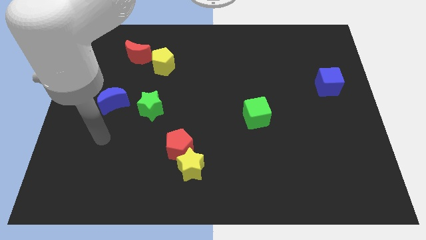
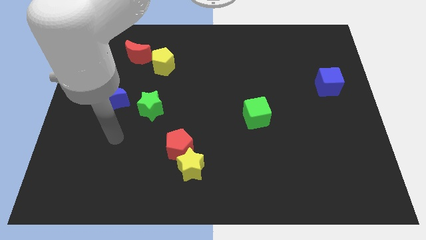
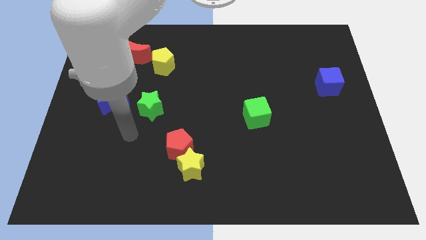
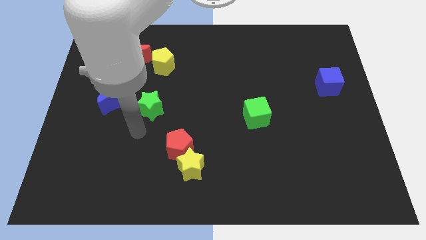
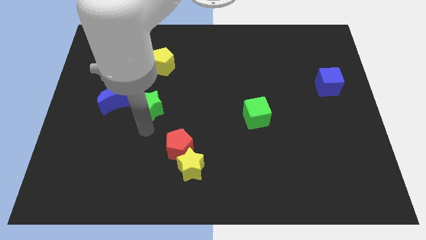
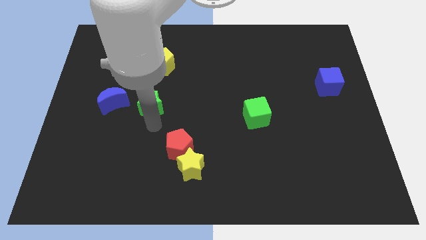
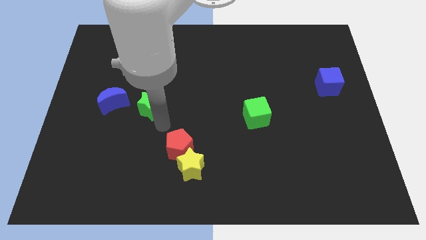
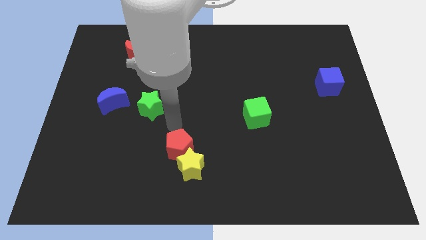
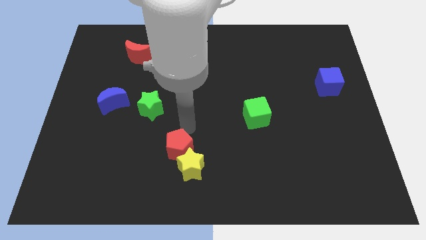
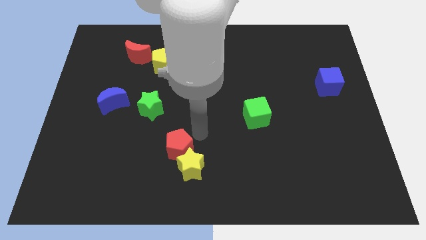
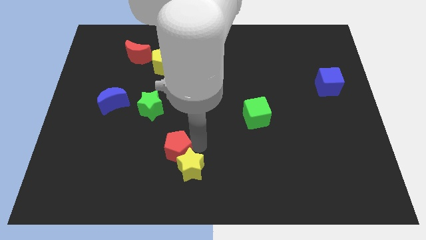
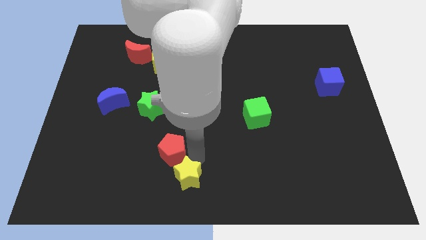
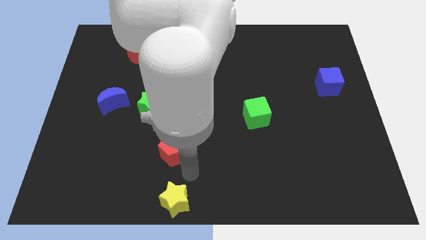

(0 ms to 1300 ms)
pull the red pentagon apart from the yellow star

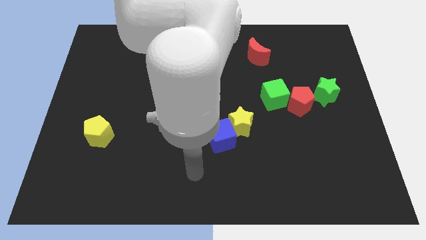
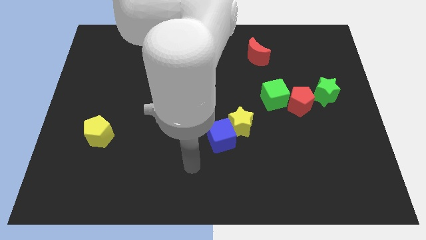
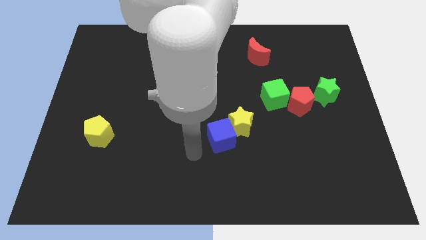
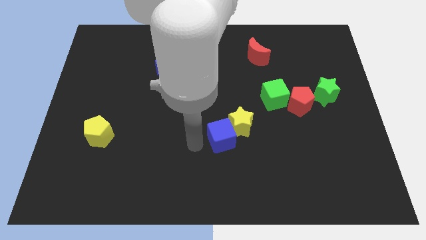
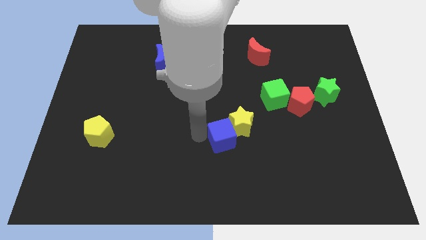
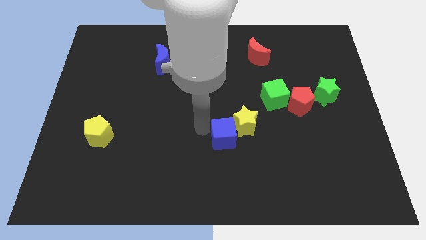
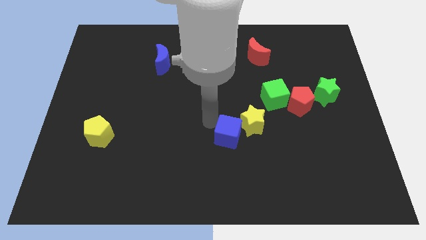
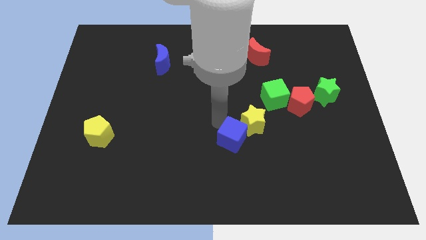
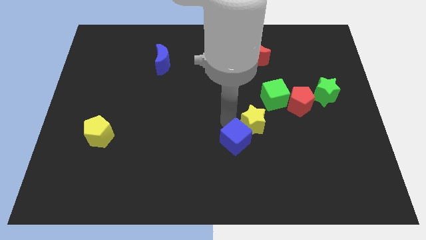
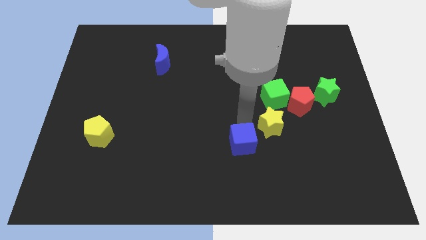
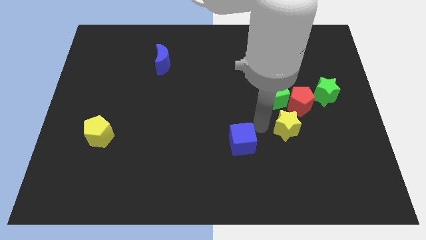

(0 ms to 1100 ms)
separate the blue cube from the yellow star

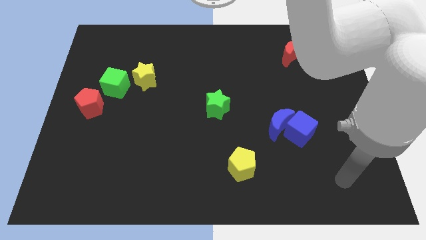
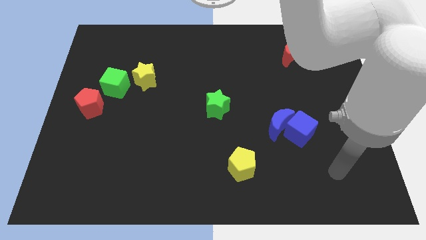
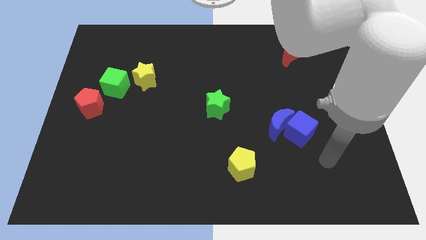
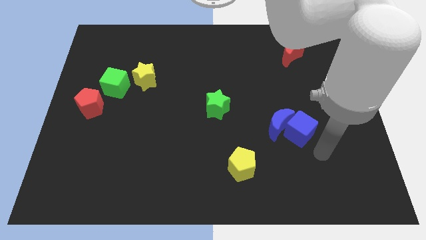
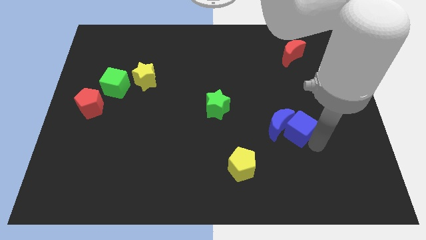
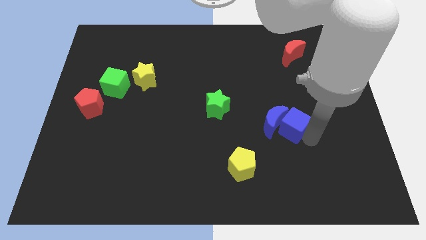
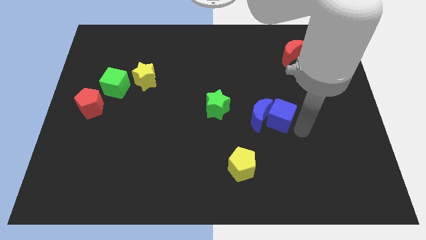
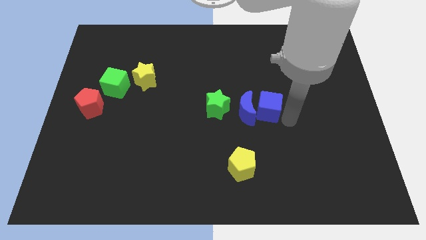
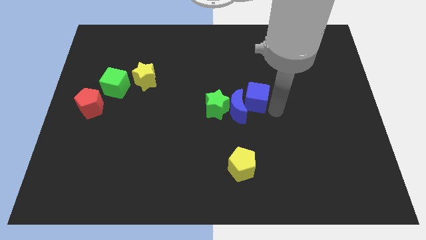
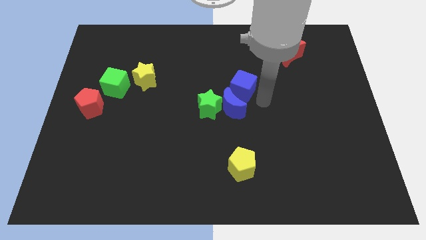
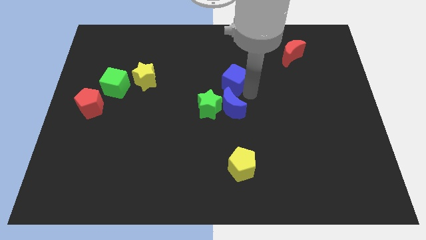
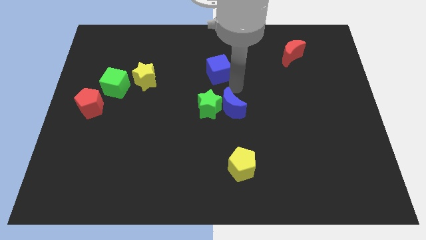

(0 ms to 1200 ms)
move the blue moon away from the blue cube

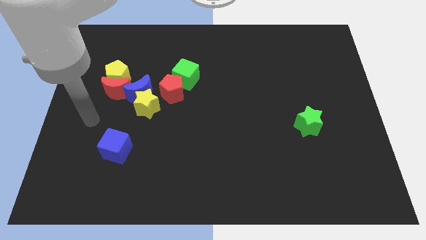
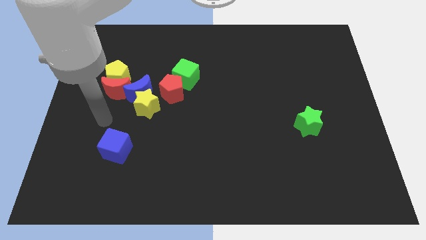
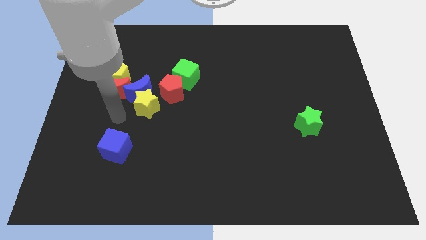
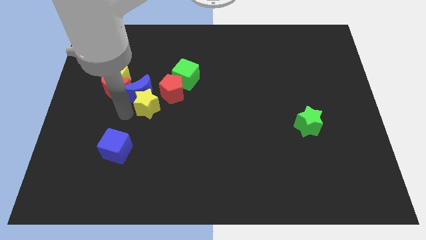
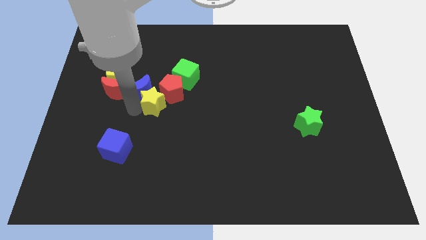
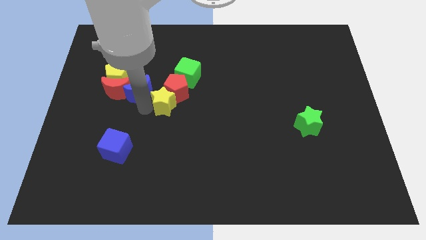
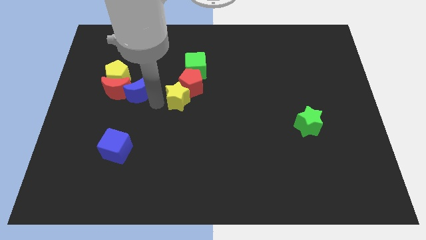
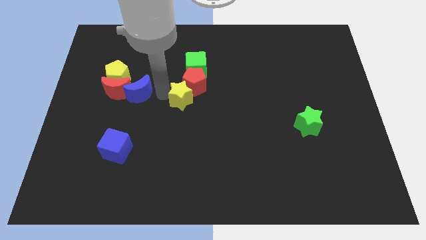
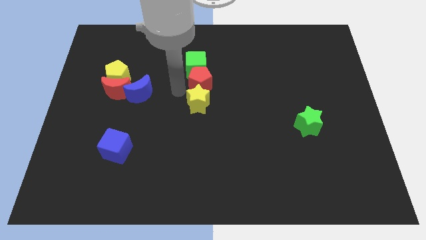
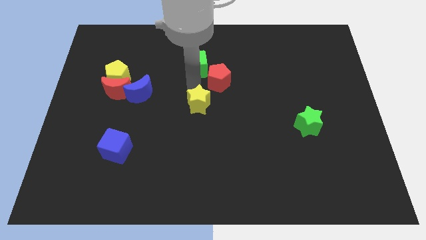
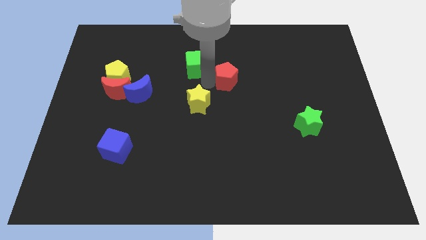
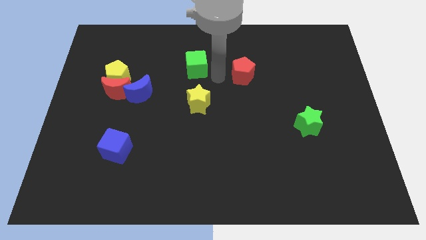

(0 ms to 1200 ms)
pull the green cube apart from the red pentagon

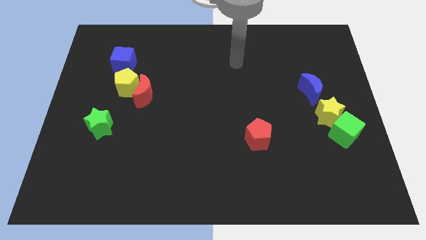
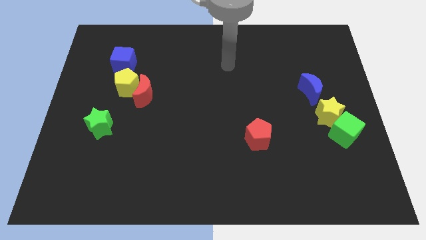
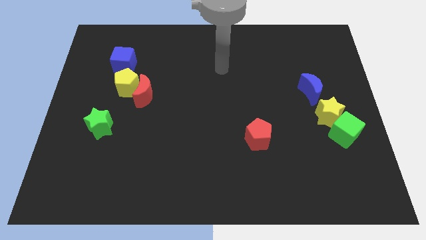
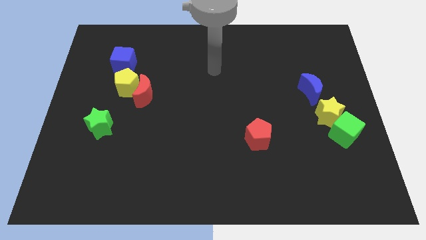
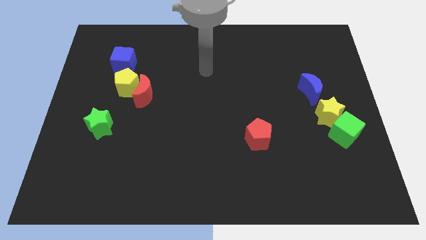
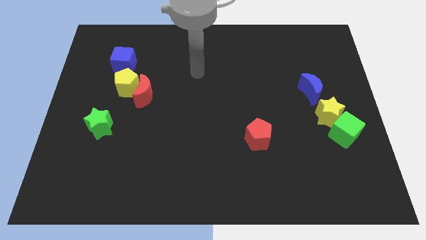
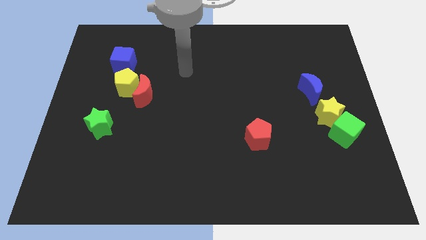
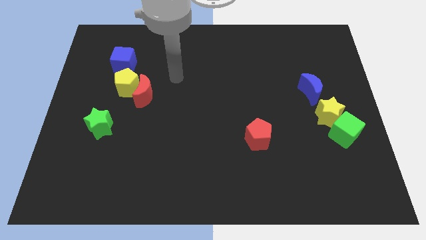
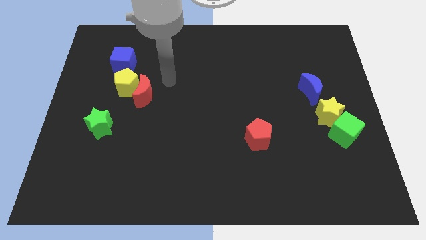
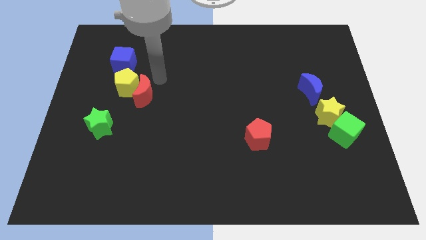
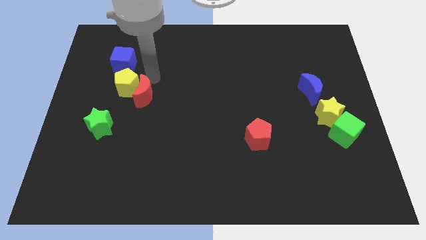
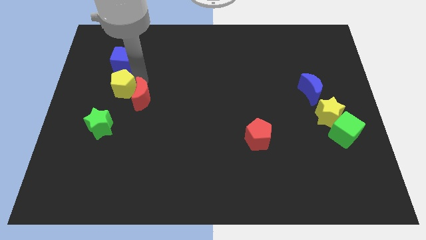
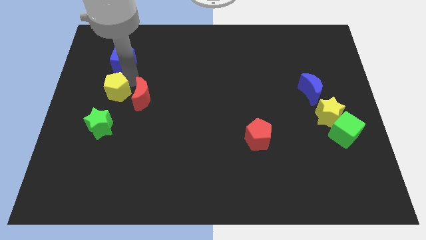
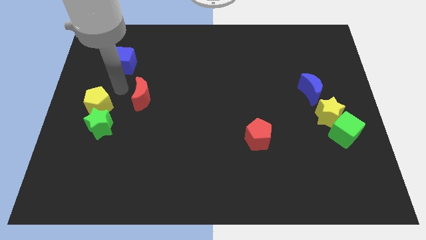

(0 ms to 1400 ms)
move the red moon away from the yellow pentagon

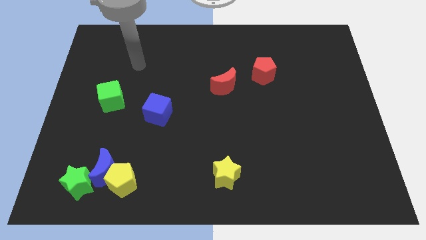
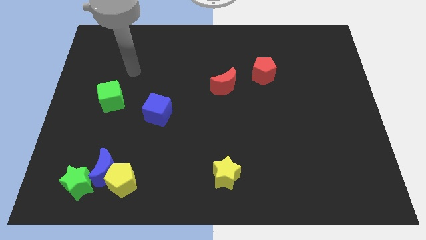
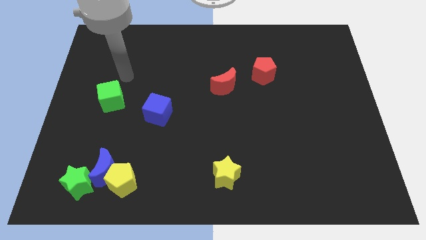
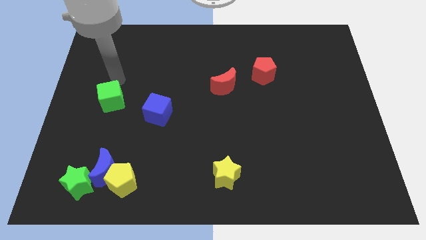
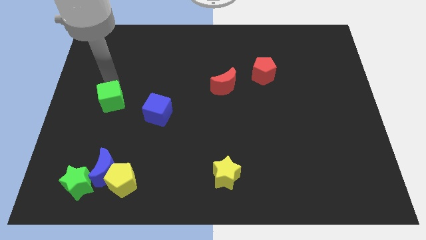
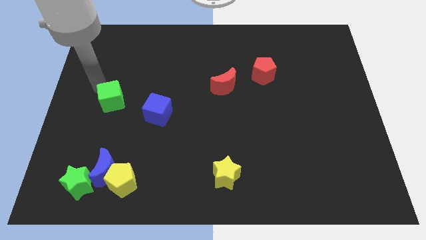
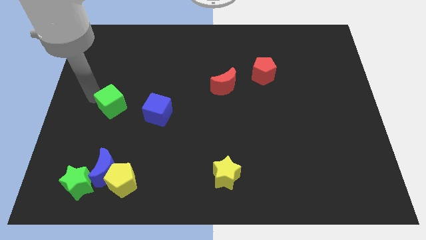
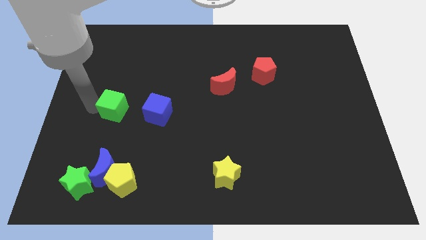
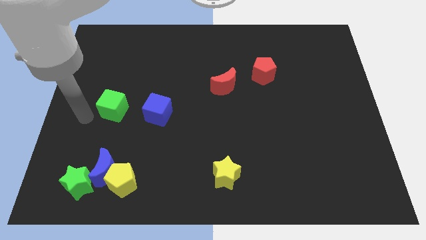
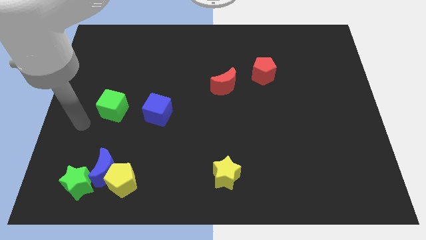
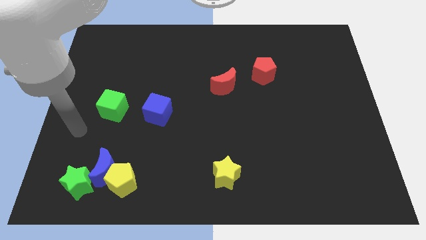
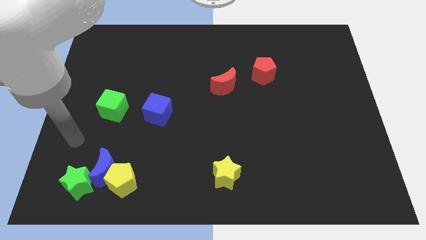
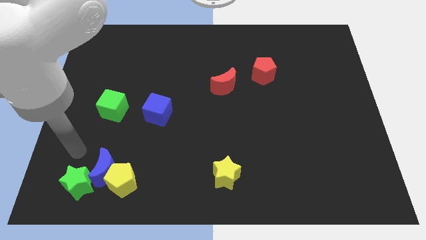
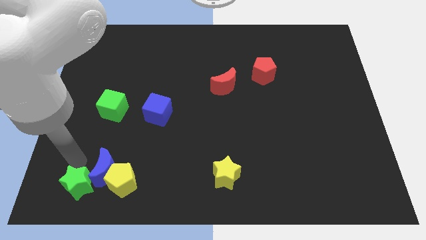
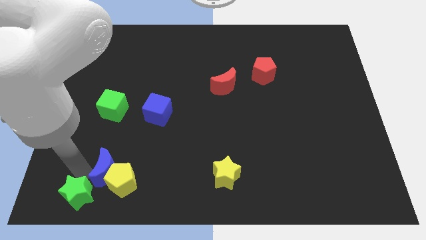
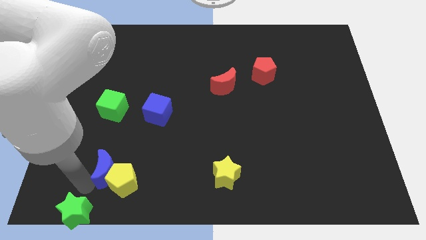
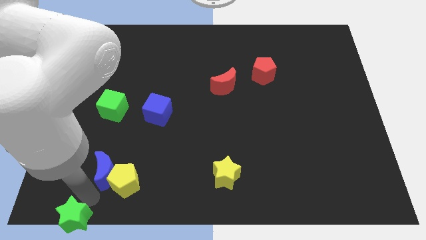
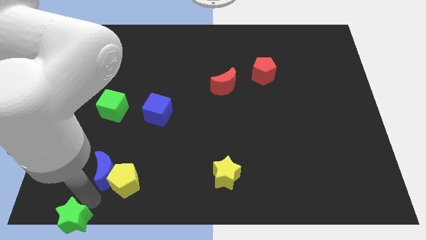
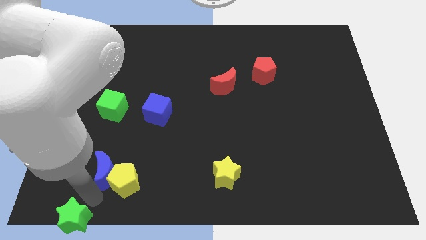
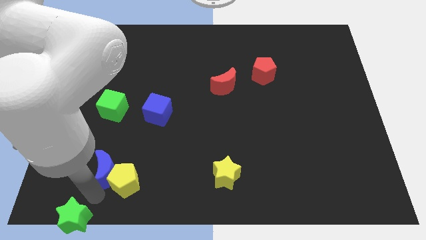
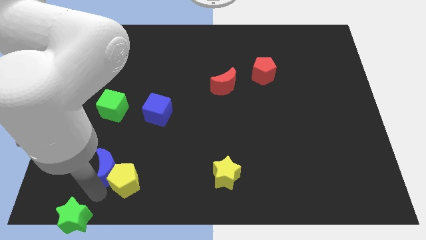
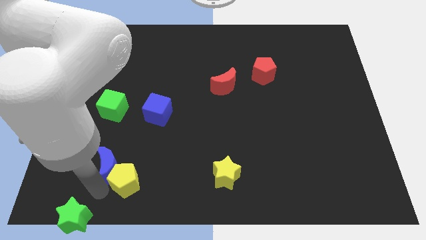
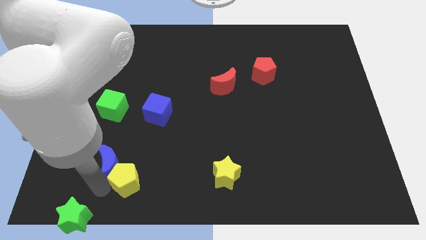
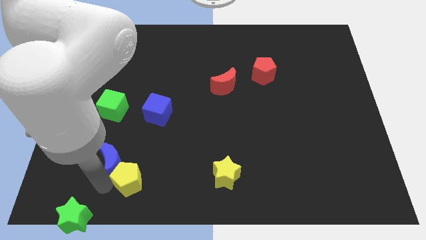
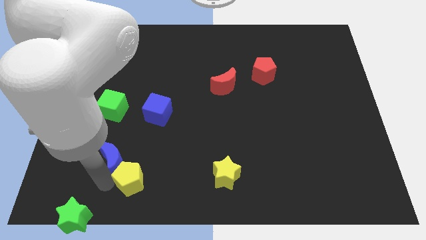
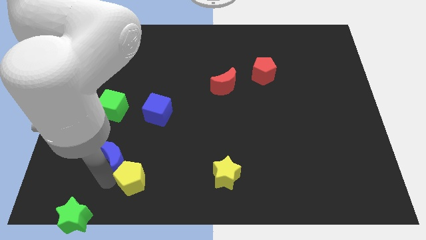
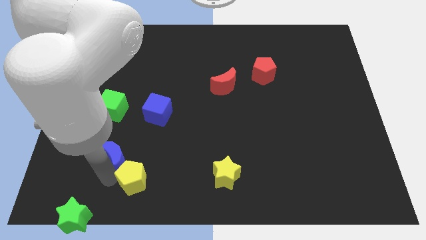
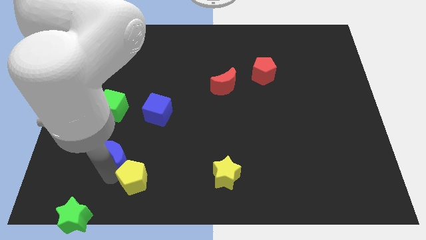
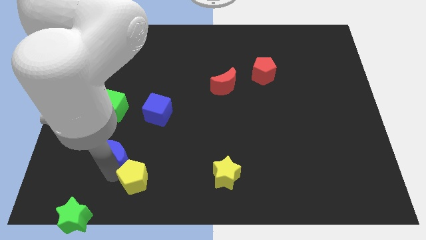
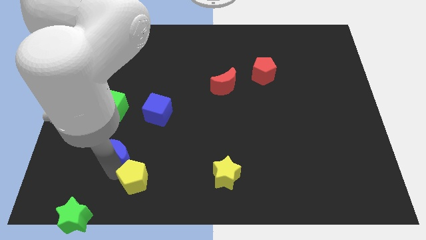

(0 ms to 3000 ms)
pull the blue moon apart from the yellow pentagon and green star

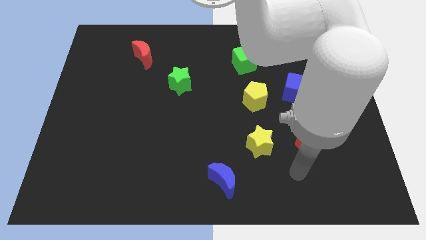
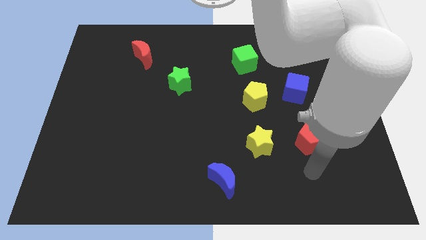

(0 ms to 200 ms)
pull the blue cube apart from the yellow pentagon

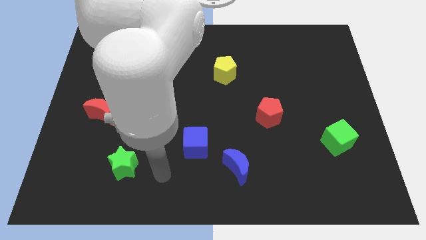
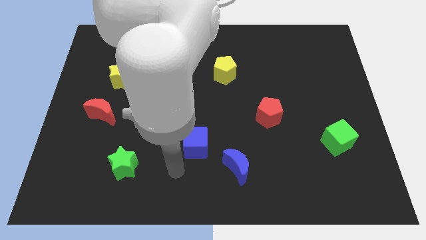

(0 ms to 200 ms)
pull the blue moon apart from the blue cube
